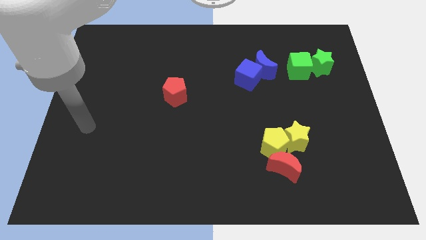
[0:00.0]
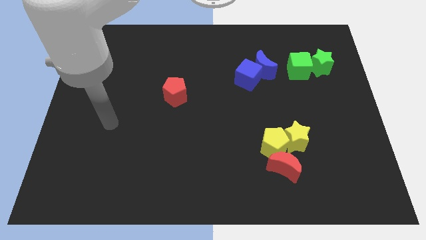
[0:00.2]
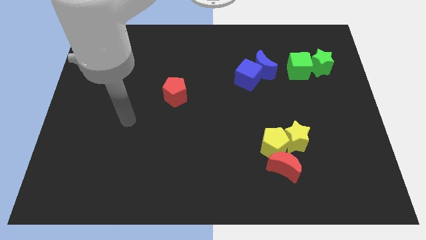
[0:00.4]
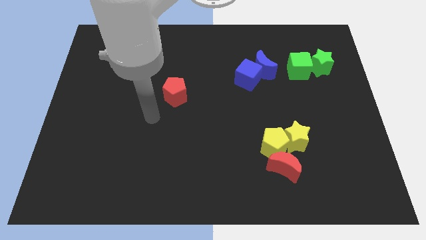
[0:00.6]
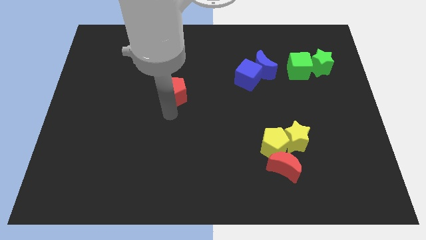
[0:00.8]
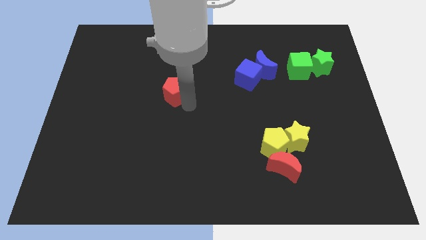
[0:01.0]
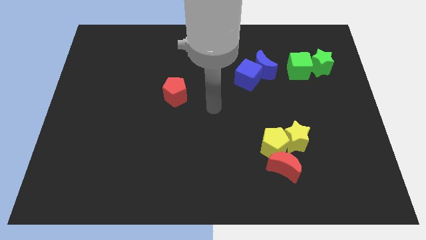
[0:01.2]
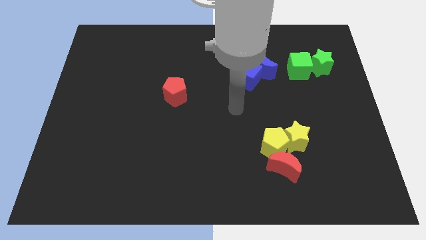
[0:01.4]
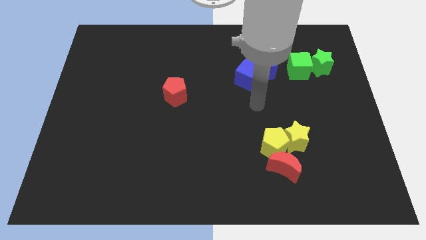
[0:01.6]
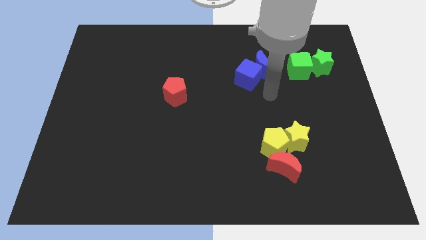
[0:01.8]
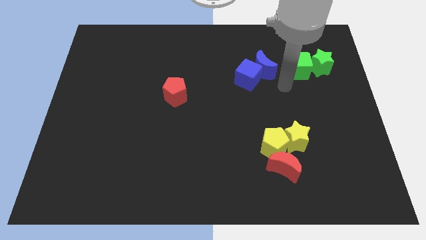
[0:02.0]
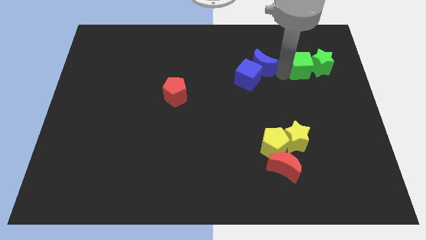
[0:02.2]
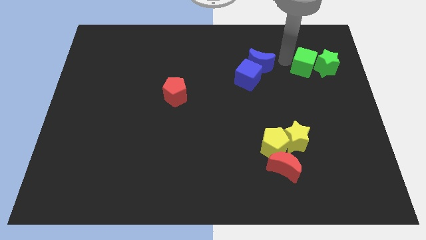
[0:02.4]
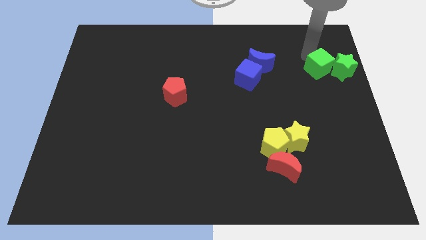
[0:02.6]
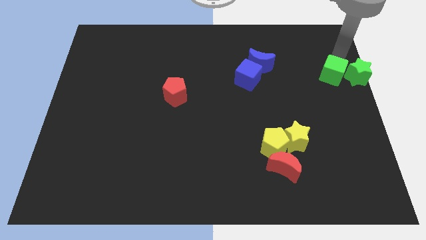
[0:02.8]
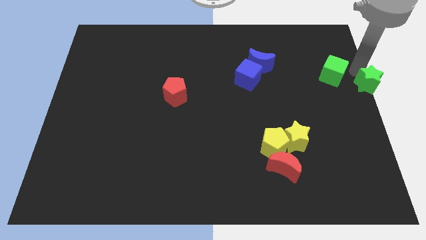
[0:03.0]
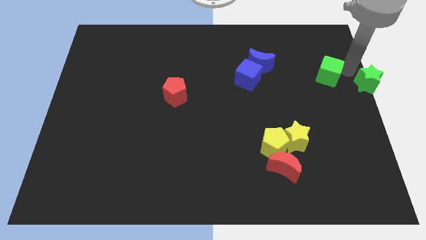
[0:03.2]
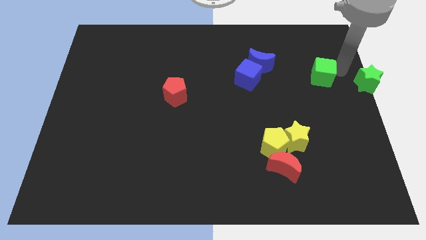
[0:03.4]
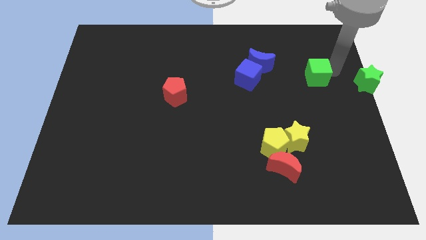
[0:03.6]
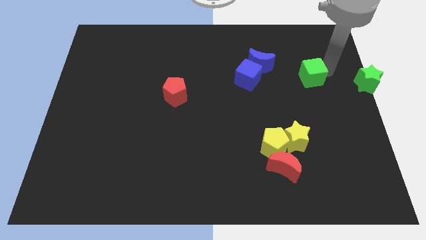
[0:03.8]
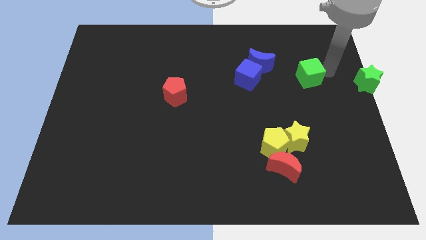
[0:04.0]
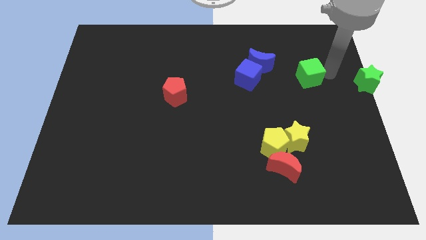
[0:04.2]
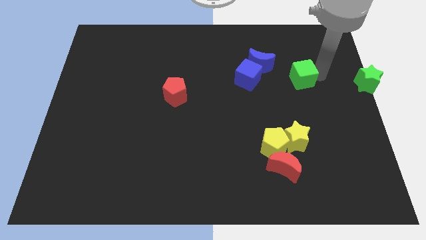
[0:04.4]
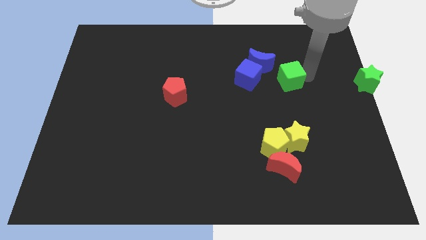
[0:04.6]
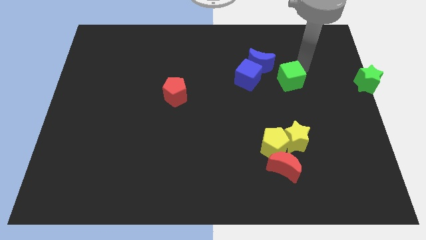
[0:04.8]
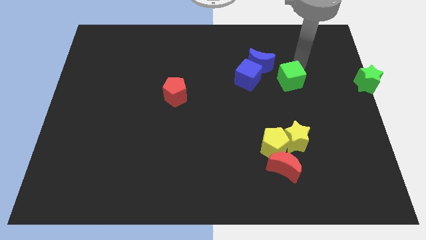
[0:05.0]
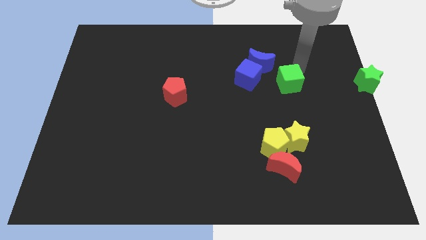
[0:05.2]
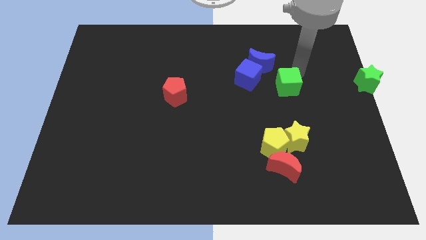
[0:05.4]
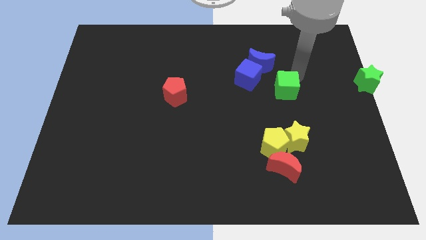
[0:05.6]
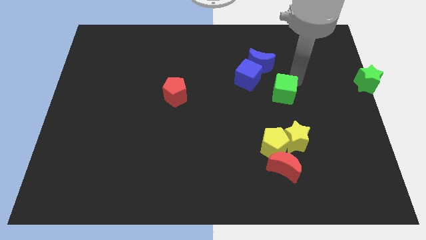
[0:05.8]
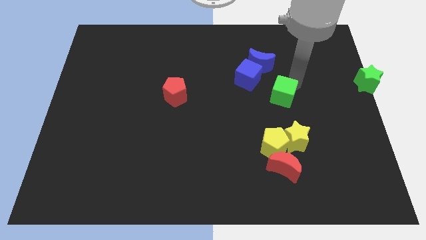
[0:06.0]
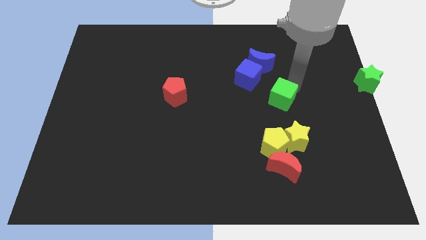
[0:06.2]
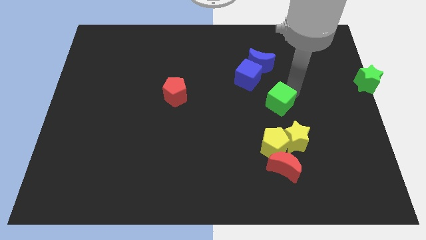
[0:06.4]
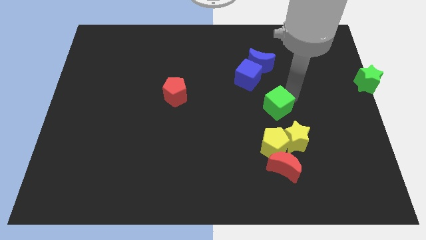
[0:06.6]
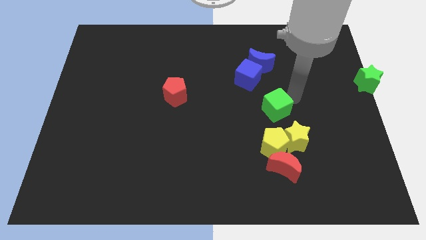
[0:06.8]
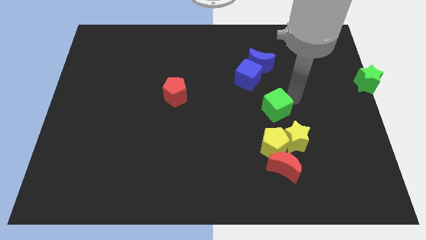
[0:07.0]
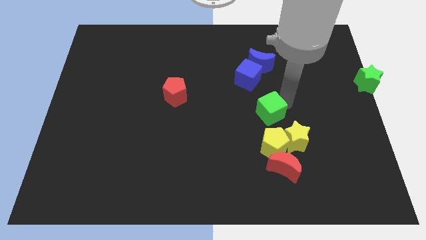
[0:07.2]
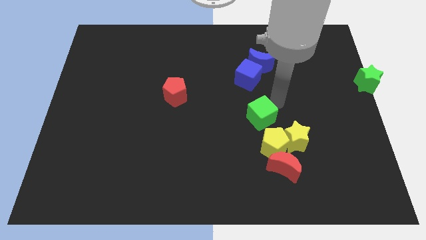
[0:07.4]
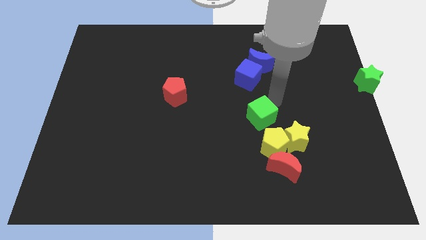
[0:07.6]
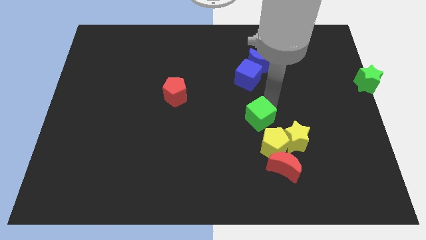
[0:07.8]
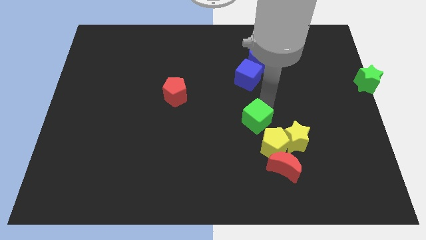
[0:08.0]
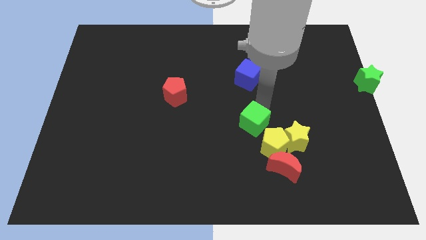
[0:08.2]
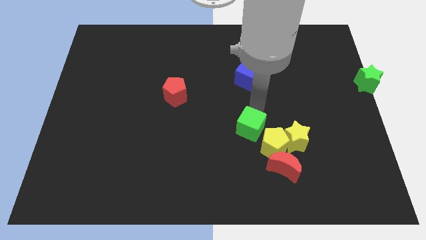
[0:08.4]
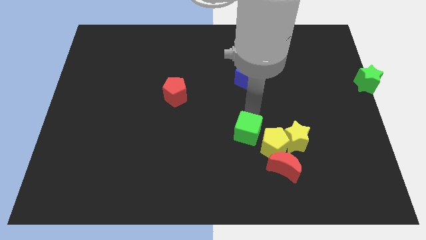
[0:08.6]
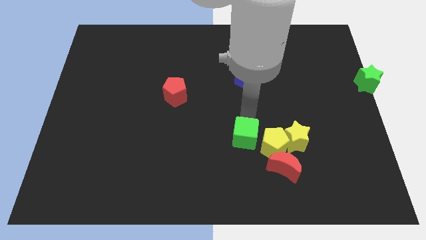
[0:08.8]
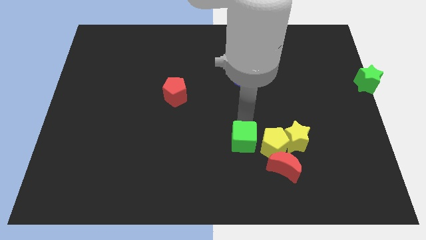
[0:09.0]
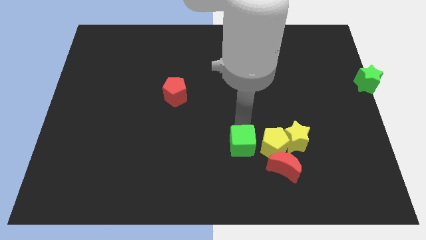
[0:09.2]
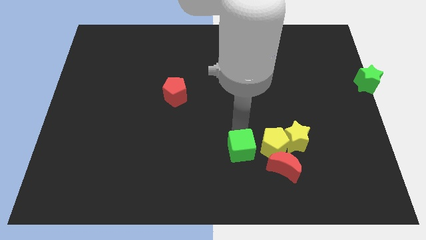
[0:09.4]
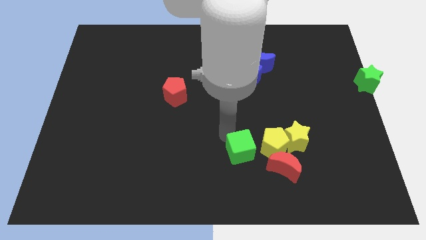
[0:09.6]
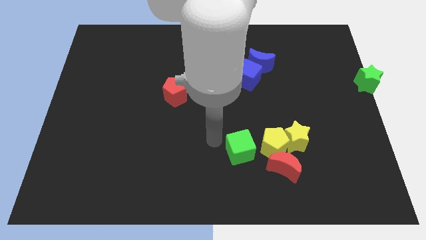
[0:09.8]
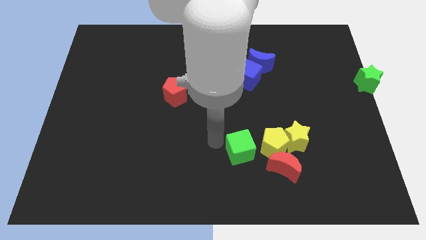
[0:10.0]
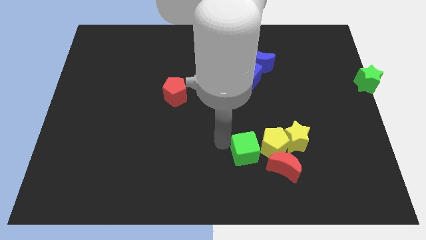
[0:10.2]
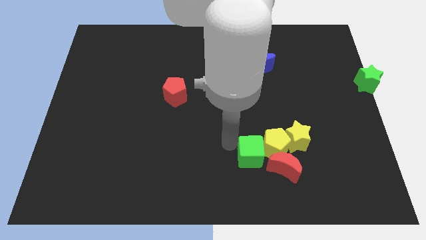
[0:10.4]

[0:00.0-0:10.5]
push the green cube to the bottom left of the yellow star

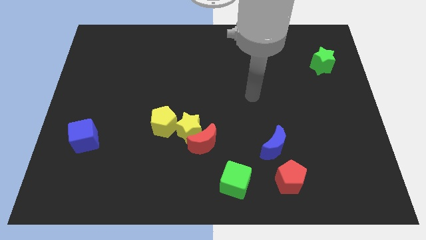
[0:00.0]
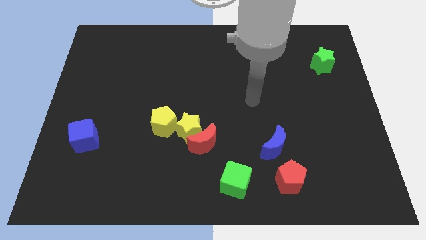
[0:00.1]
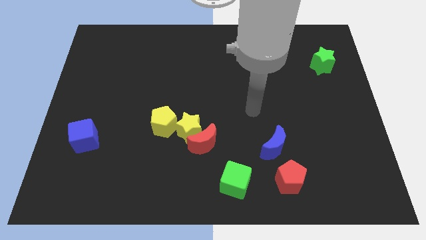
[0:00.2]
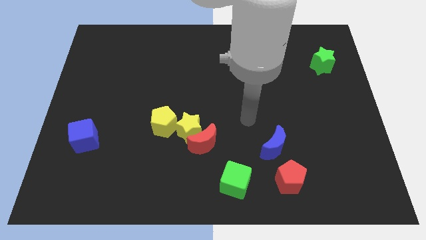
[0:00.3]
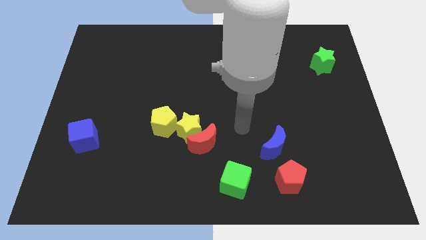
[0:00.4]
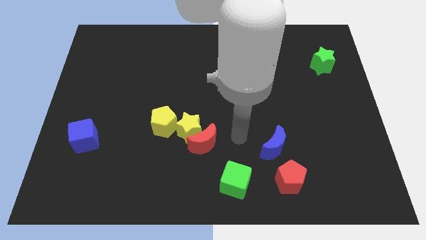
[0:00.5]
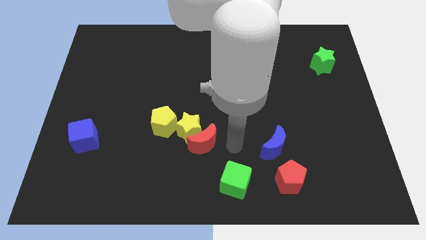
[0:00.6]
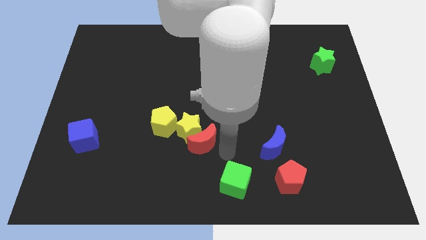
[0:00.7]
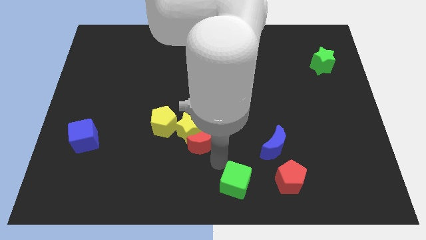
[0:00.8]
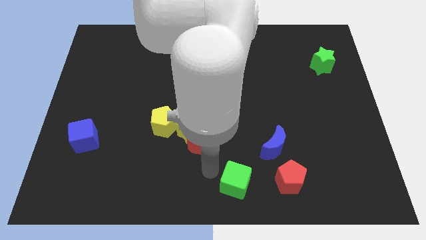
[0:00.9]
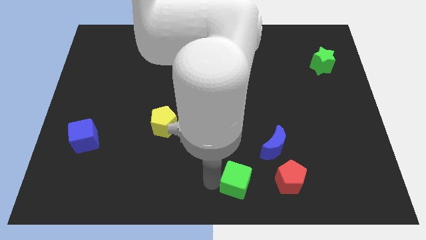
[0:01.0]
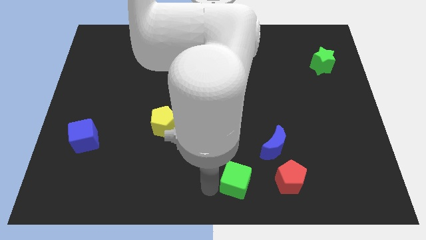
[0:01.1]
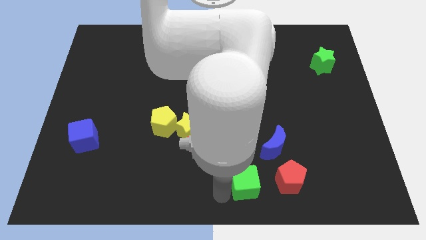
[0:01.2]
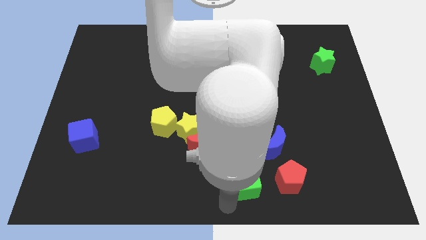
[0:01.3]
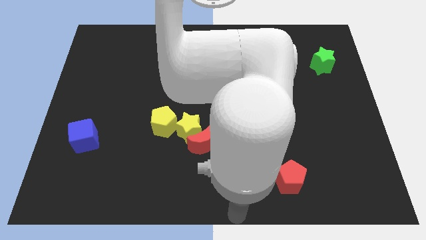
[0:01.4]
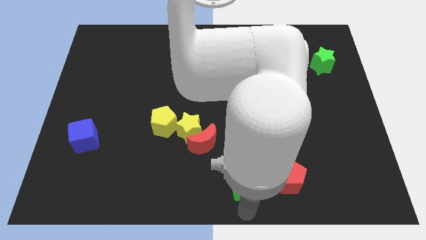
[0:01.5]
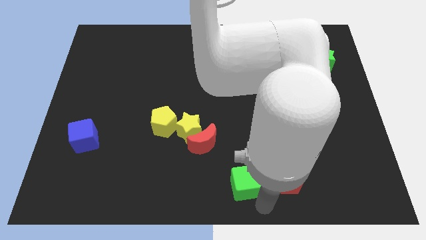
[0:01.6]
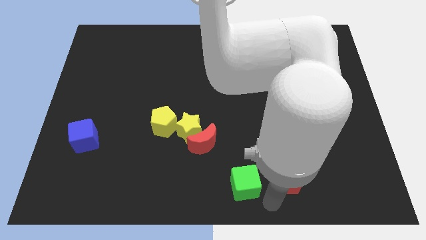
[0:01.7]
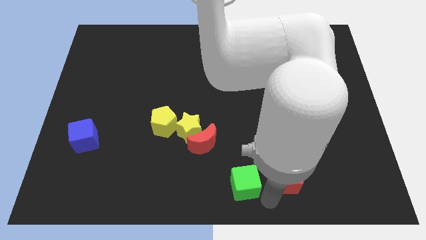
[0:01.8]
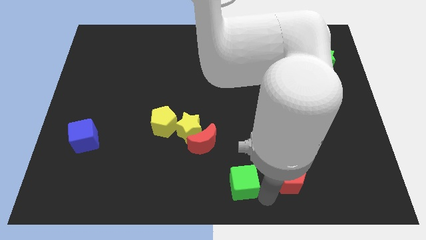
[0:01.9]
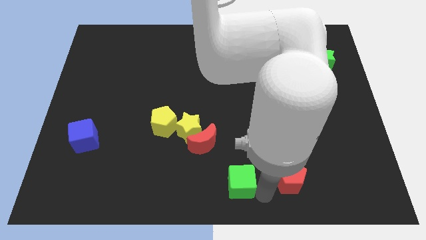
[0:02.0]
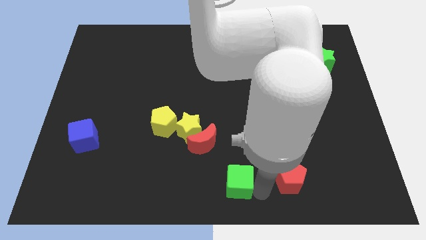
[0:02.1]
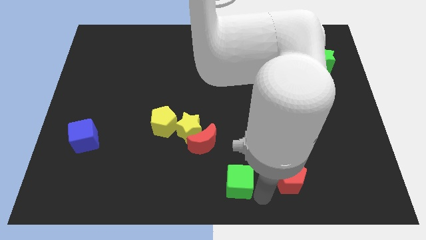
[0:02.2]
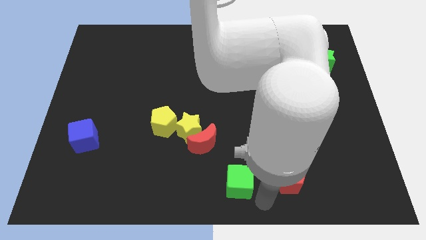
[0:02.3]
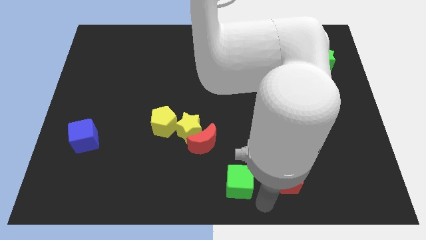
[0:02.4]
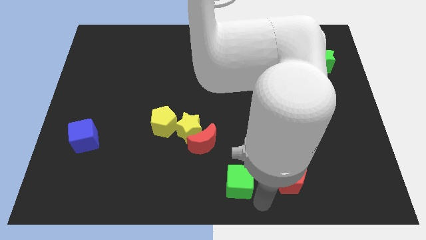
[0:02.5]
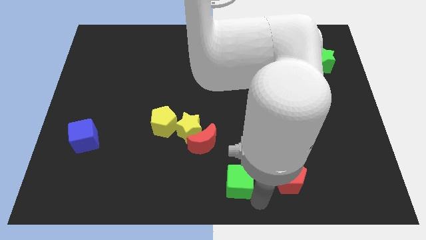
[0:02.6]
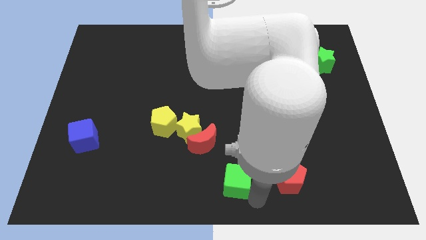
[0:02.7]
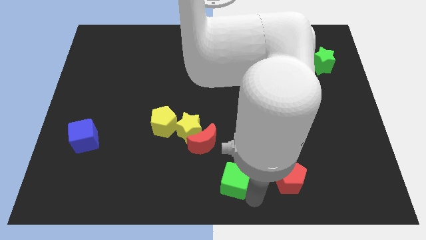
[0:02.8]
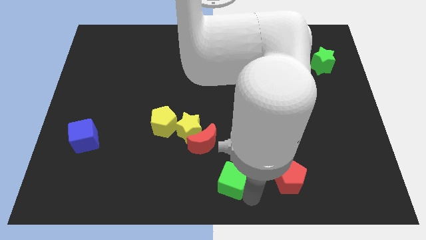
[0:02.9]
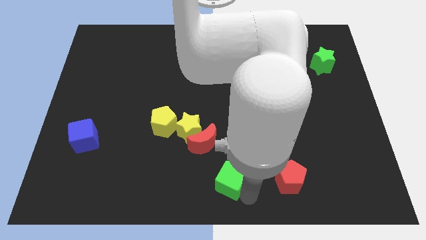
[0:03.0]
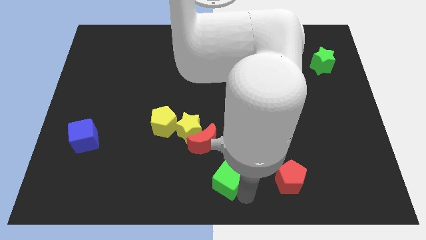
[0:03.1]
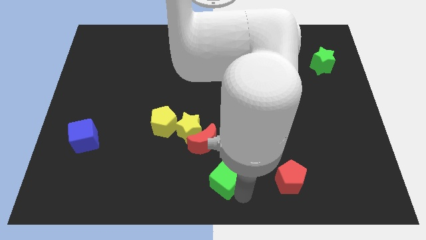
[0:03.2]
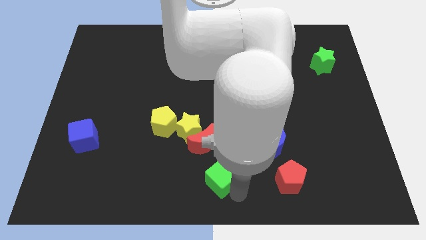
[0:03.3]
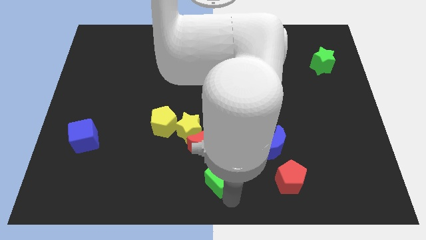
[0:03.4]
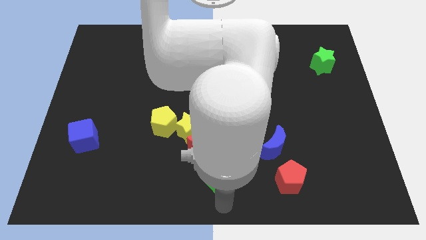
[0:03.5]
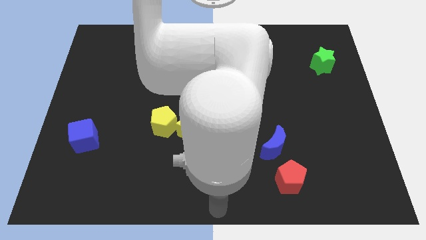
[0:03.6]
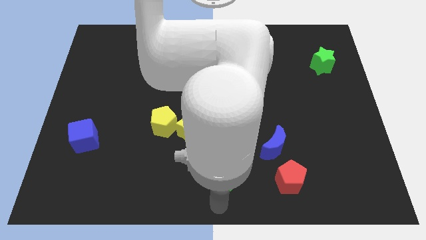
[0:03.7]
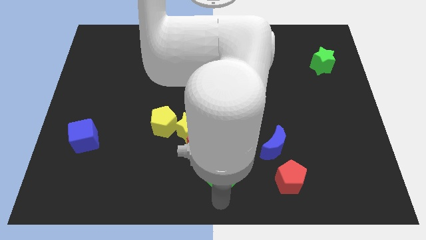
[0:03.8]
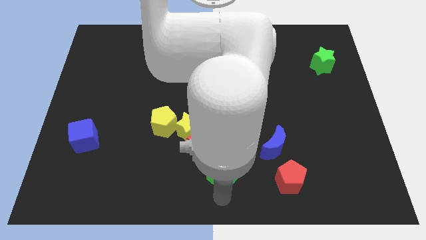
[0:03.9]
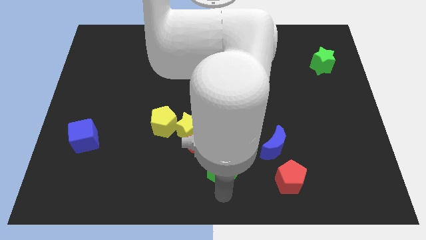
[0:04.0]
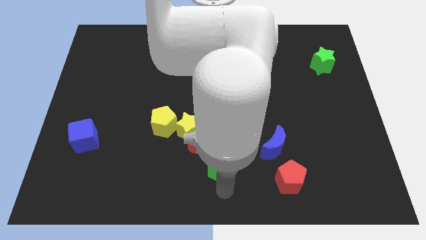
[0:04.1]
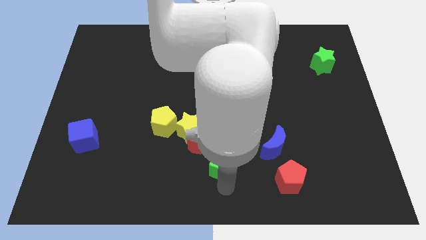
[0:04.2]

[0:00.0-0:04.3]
move the green cube left of the blue moon
